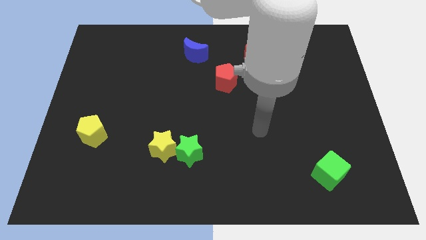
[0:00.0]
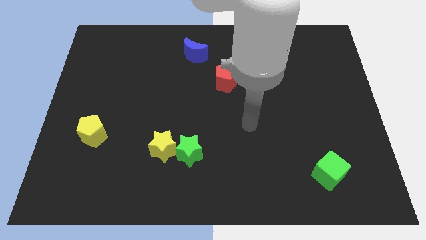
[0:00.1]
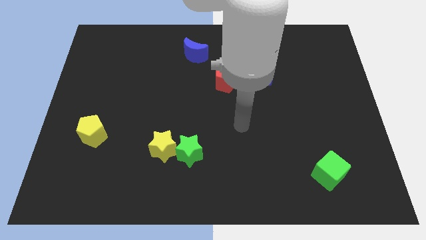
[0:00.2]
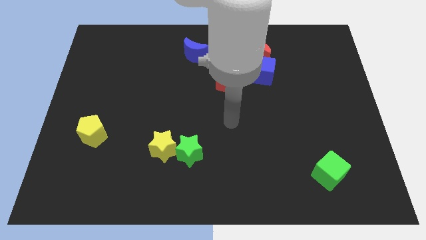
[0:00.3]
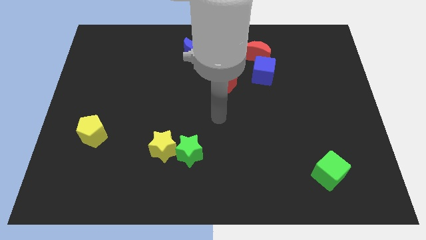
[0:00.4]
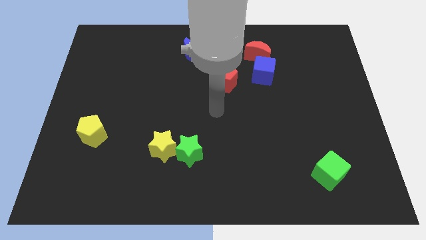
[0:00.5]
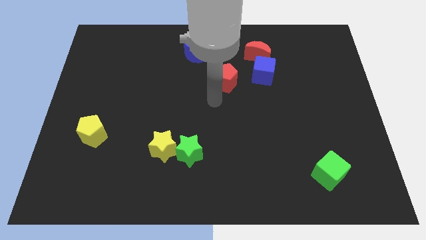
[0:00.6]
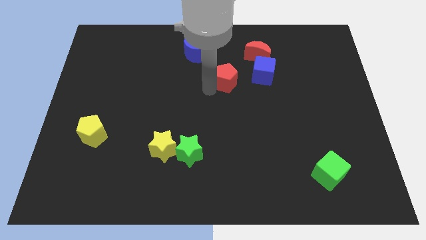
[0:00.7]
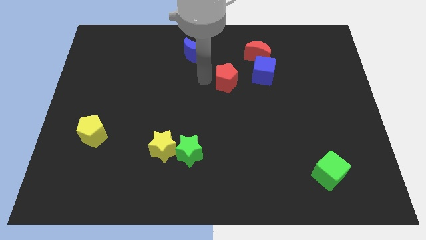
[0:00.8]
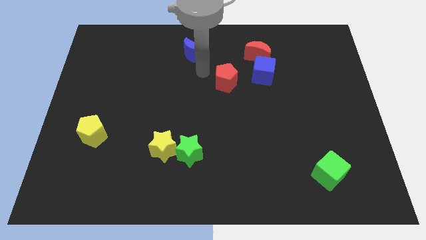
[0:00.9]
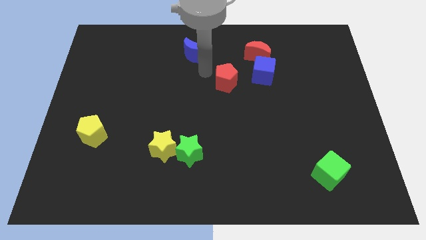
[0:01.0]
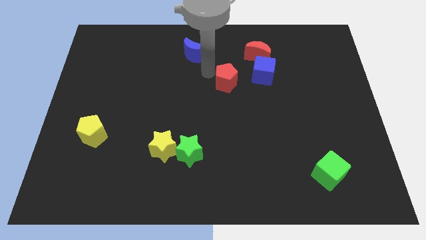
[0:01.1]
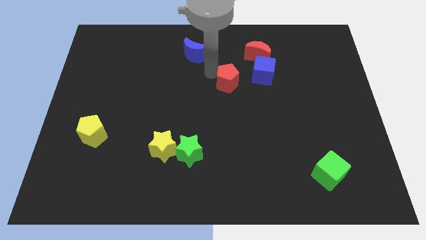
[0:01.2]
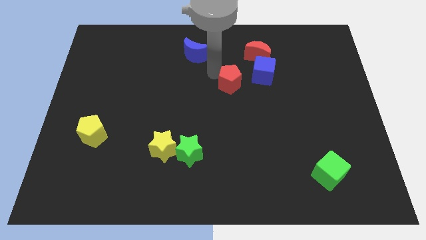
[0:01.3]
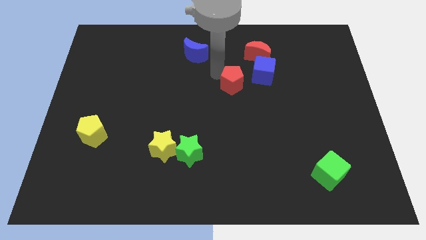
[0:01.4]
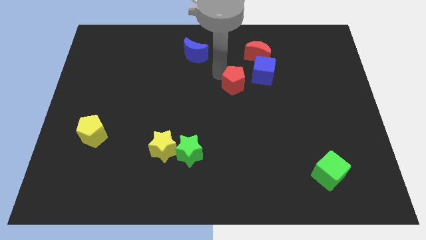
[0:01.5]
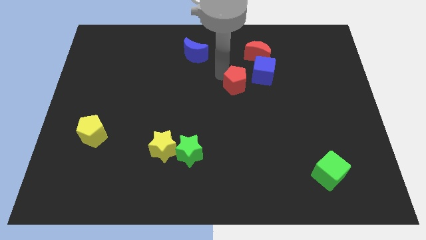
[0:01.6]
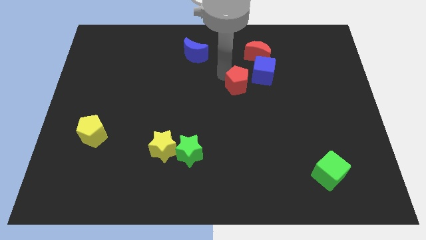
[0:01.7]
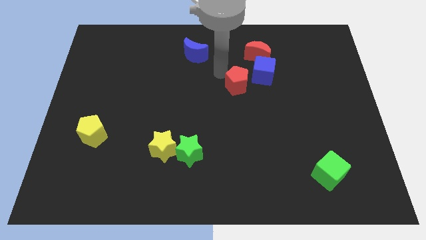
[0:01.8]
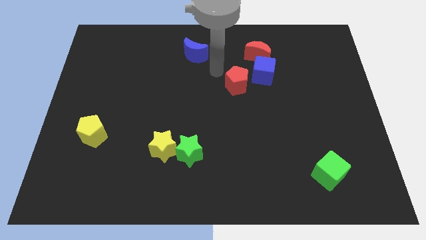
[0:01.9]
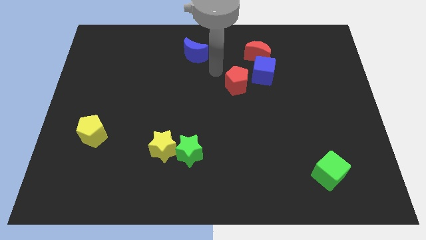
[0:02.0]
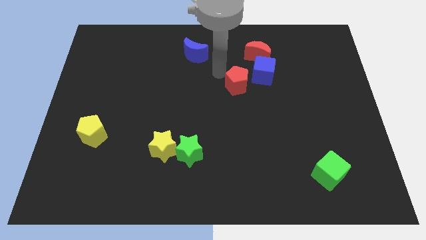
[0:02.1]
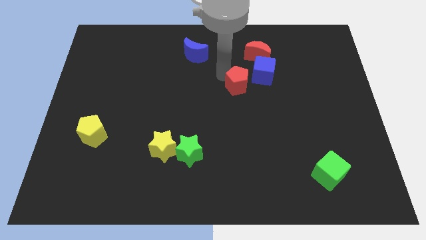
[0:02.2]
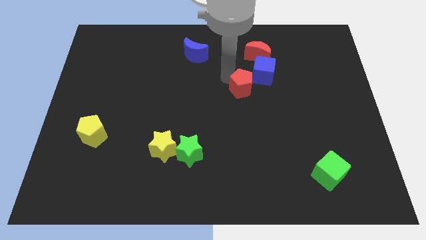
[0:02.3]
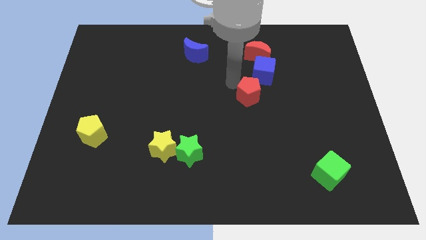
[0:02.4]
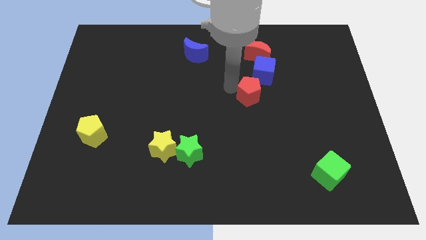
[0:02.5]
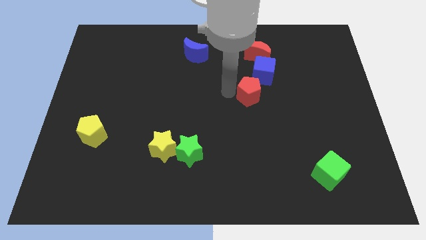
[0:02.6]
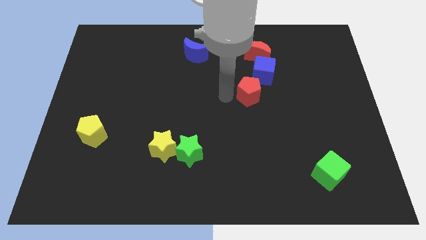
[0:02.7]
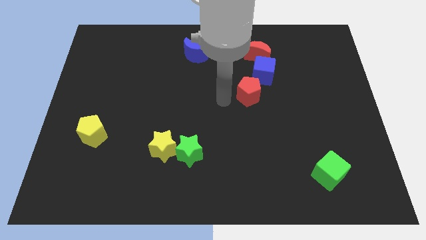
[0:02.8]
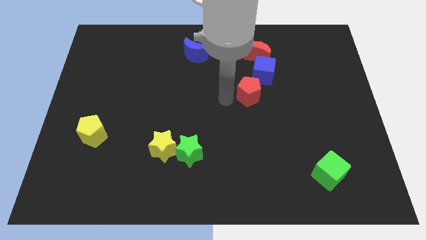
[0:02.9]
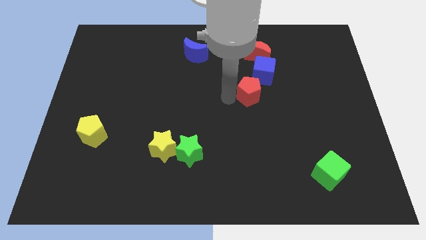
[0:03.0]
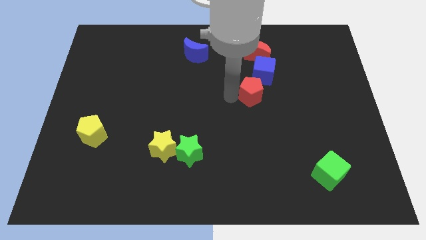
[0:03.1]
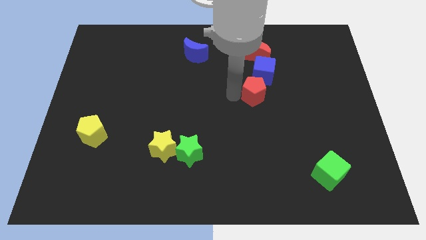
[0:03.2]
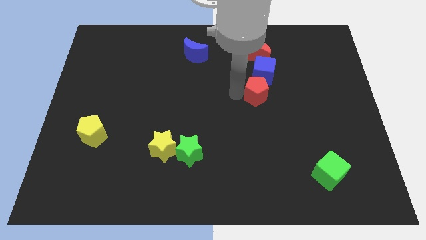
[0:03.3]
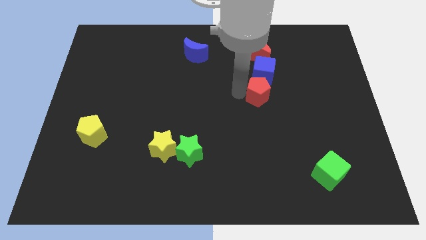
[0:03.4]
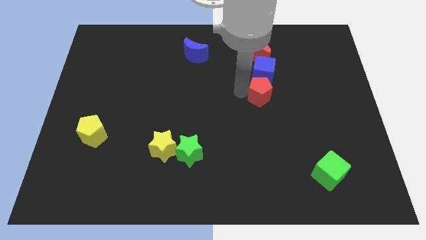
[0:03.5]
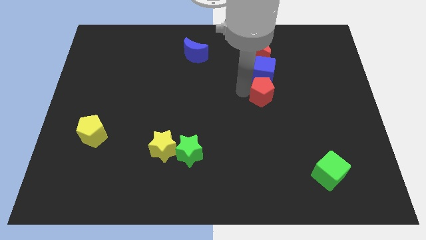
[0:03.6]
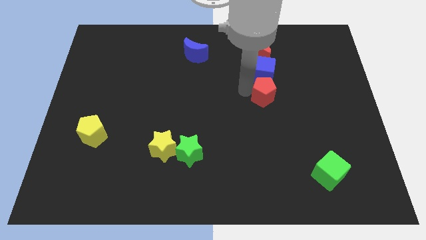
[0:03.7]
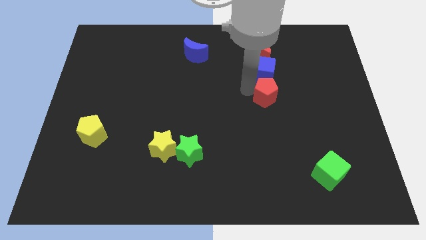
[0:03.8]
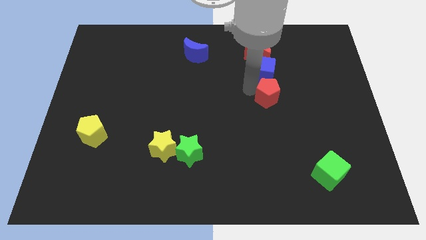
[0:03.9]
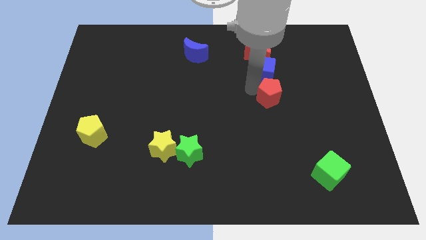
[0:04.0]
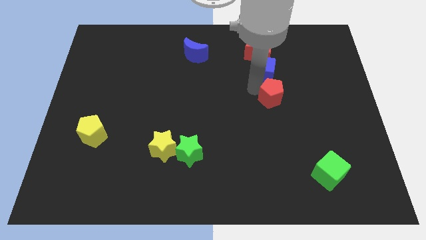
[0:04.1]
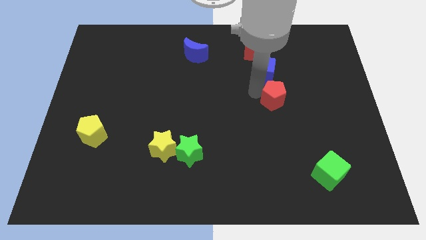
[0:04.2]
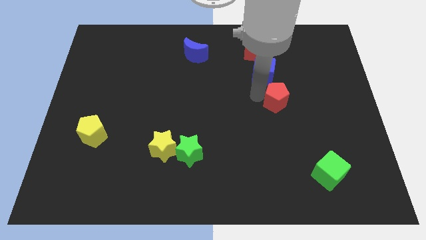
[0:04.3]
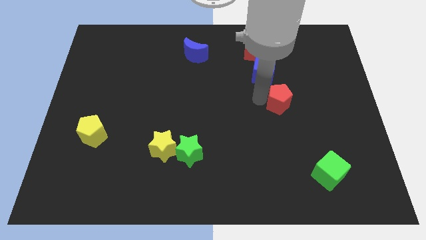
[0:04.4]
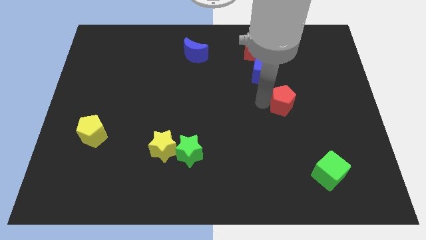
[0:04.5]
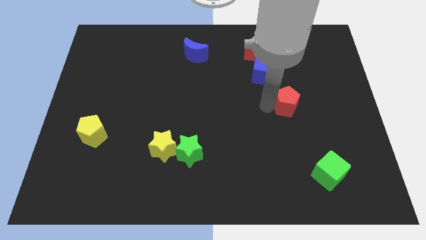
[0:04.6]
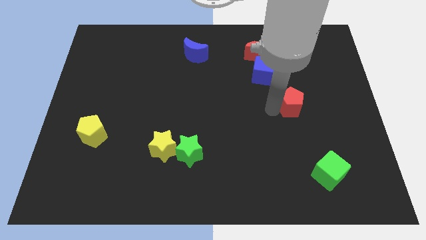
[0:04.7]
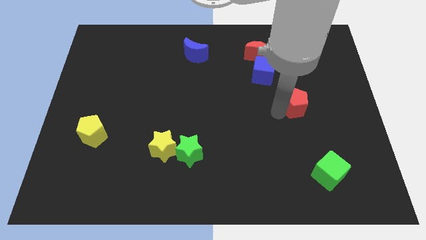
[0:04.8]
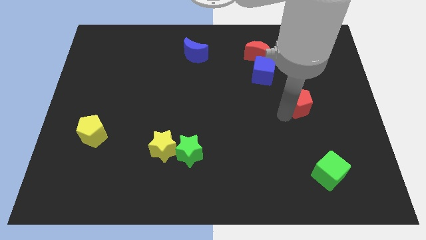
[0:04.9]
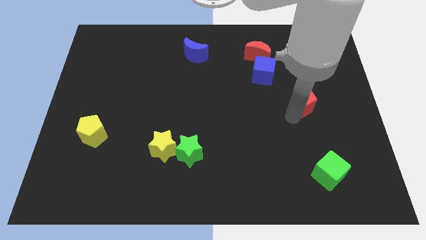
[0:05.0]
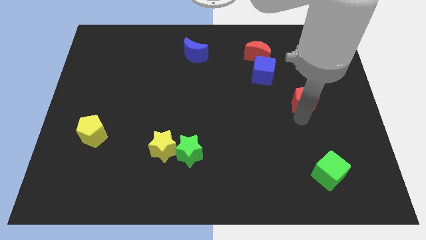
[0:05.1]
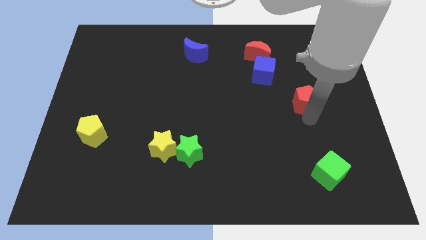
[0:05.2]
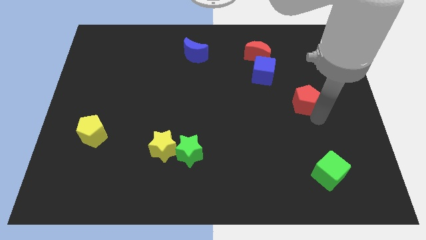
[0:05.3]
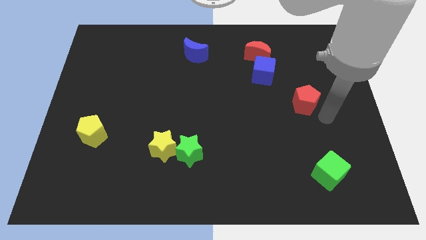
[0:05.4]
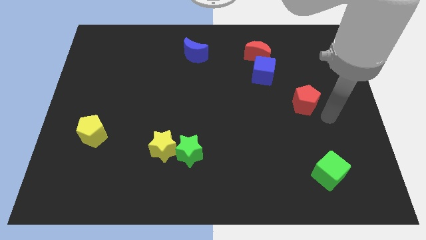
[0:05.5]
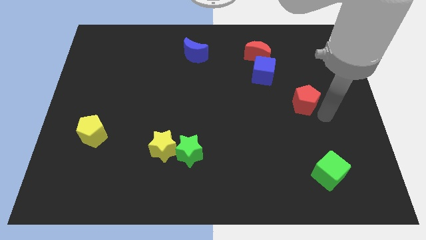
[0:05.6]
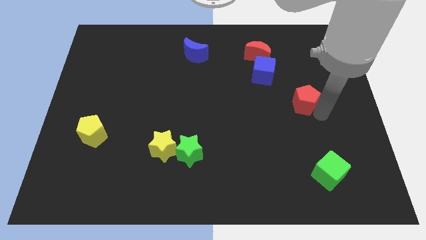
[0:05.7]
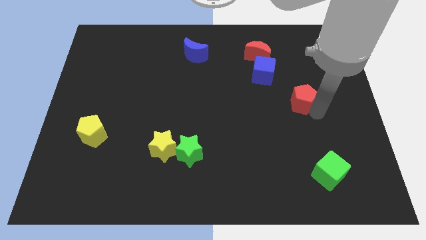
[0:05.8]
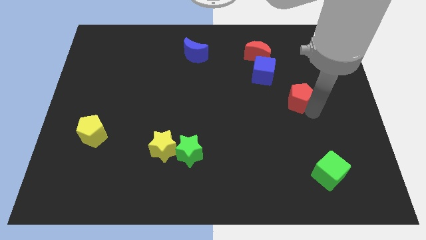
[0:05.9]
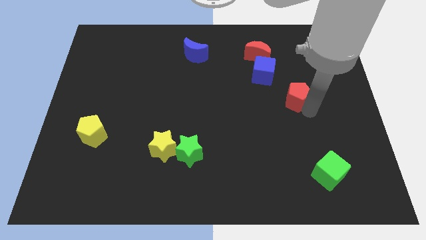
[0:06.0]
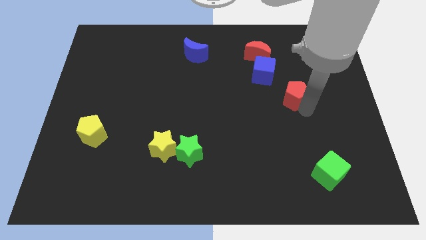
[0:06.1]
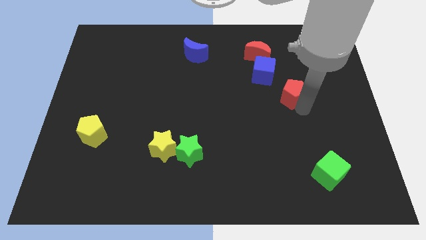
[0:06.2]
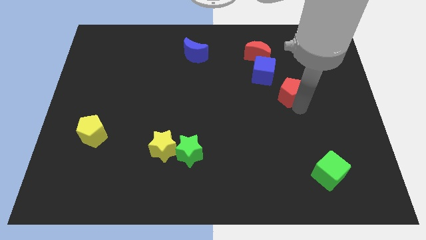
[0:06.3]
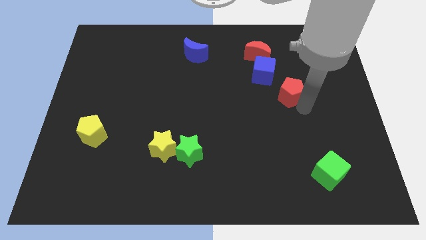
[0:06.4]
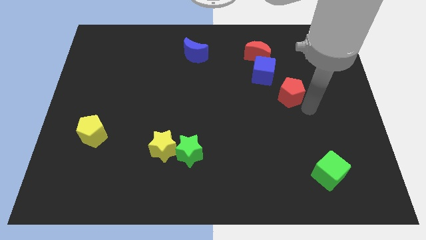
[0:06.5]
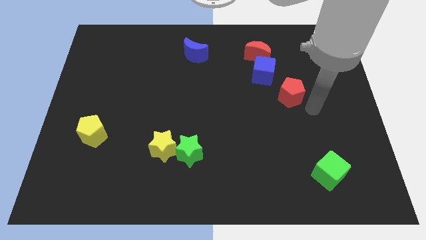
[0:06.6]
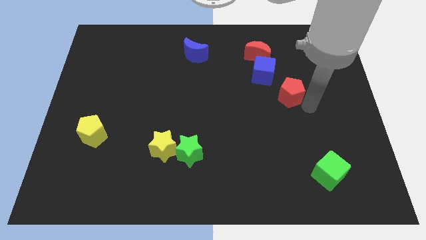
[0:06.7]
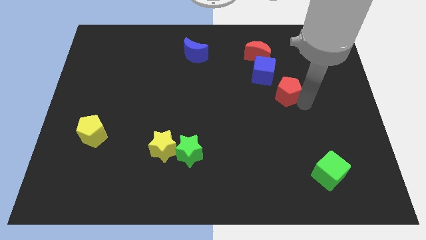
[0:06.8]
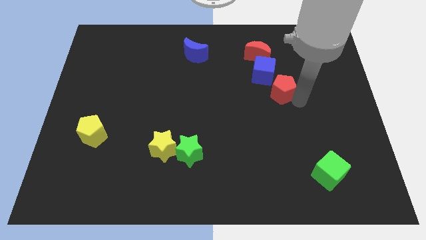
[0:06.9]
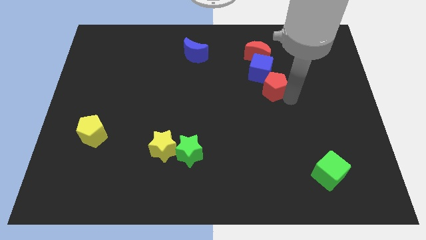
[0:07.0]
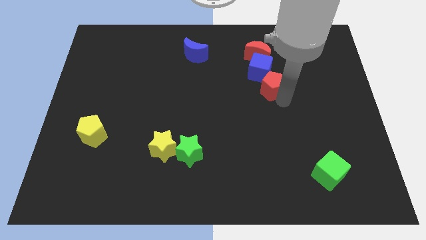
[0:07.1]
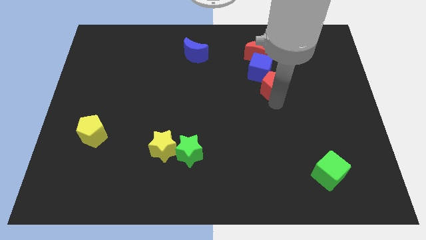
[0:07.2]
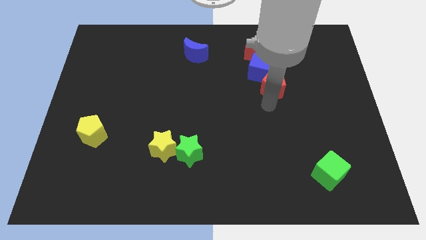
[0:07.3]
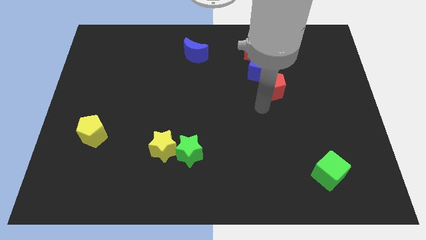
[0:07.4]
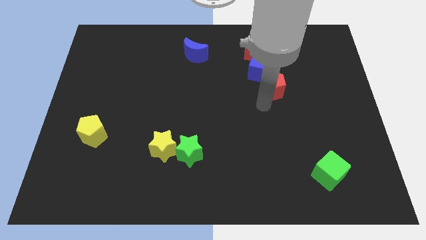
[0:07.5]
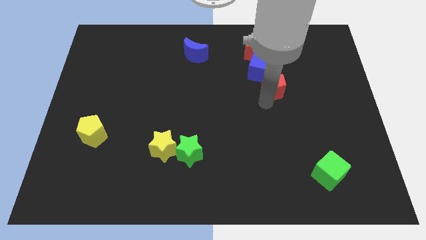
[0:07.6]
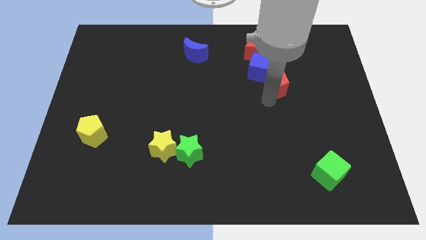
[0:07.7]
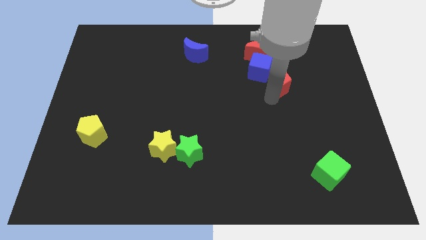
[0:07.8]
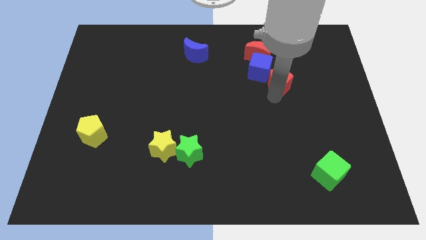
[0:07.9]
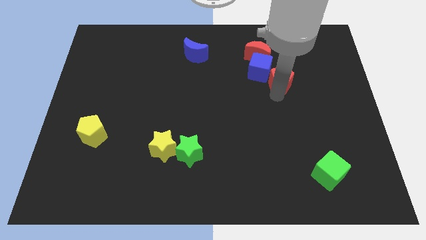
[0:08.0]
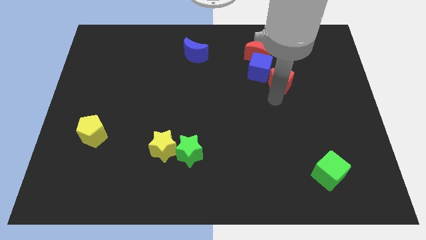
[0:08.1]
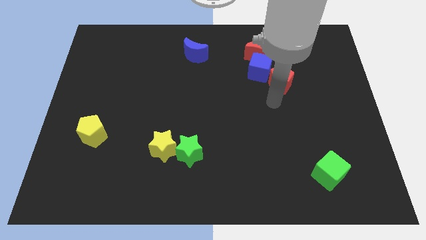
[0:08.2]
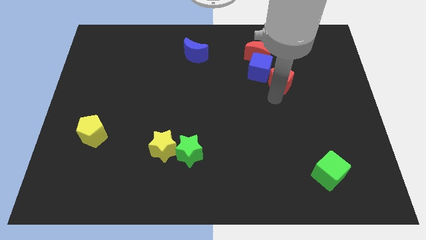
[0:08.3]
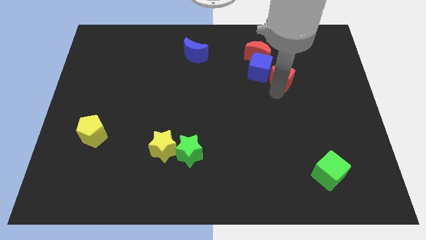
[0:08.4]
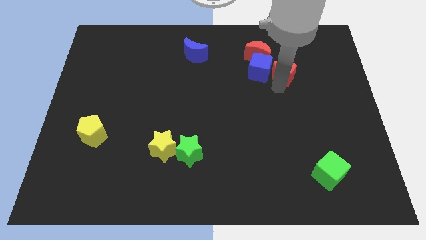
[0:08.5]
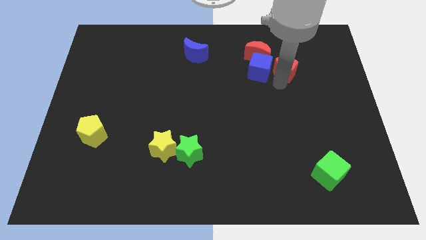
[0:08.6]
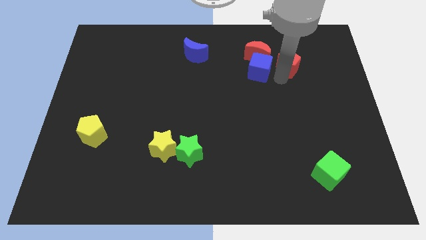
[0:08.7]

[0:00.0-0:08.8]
put the red pentagon to the right of the red moon
